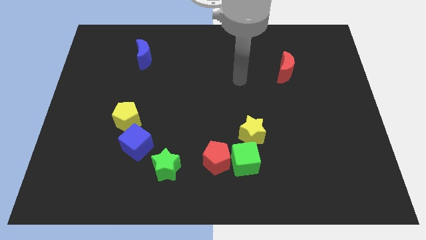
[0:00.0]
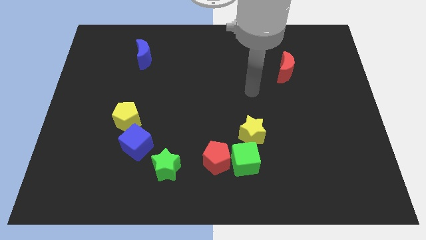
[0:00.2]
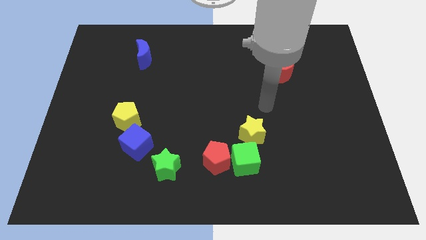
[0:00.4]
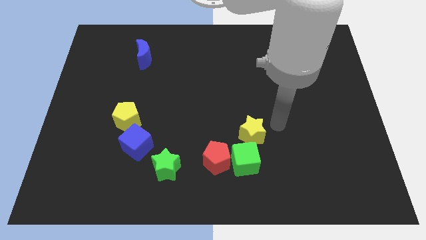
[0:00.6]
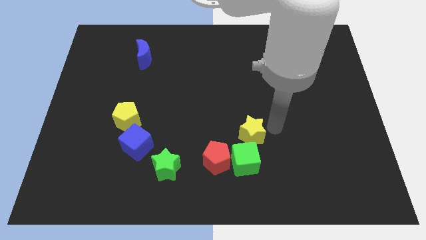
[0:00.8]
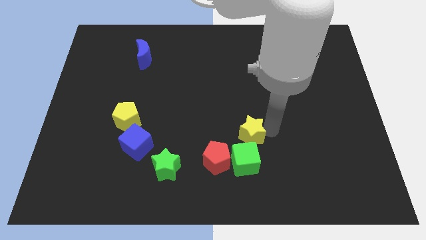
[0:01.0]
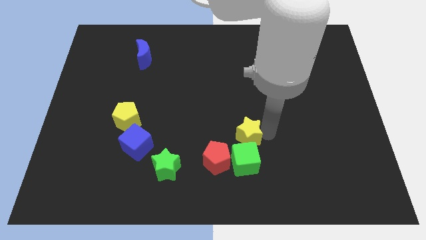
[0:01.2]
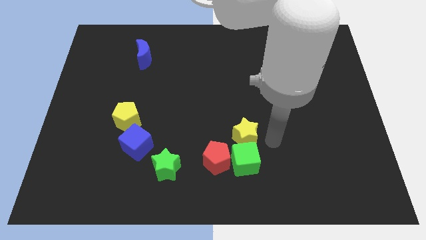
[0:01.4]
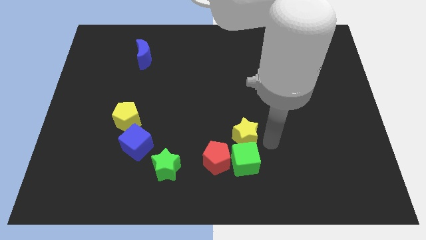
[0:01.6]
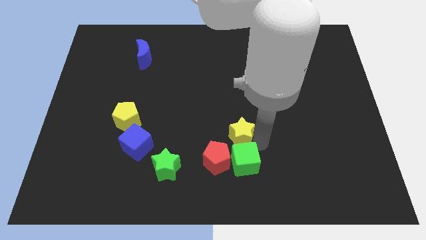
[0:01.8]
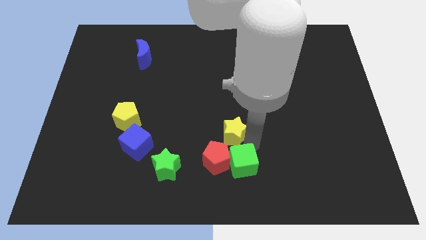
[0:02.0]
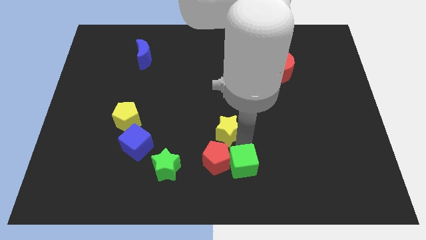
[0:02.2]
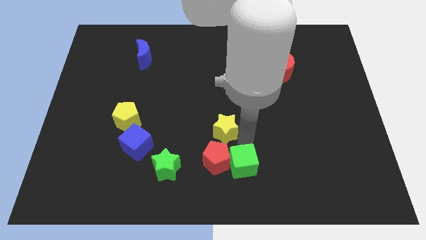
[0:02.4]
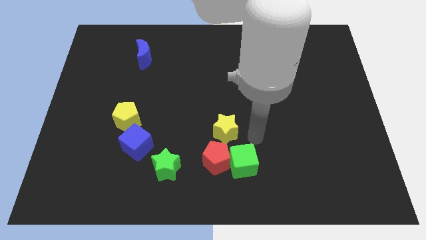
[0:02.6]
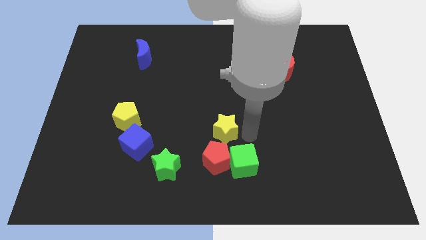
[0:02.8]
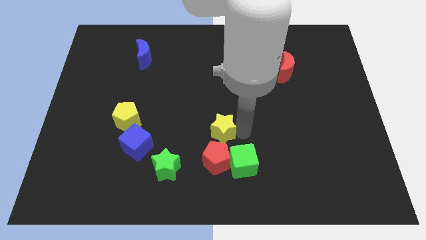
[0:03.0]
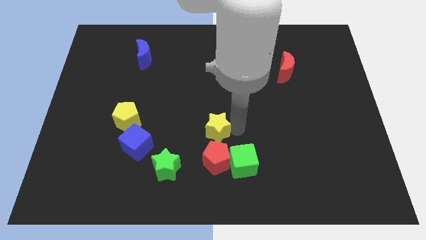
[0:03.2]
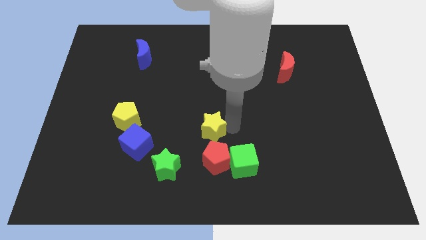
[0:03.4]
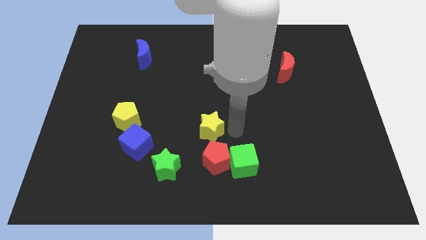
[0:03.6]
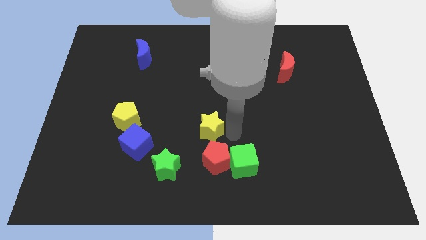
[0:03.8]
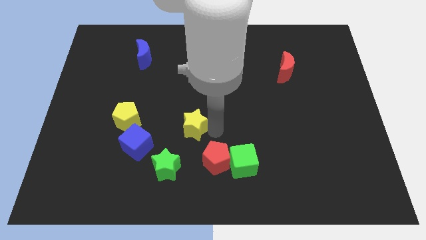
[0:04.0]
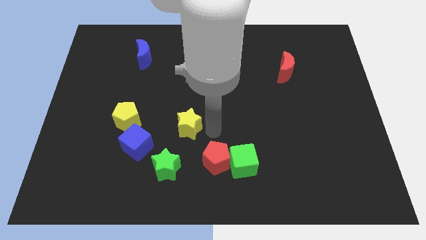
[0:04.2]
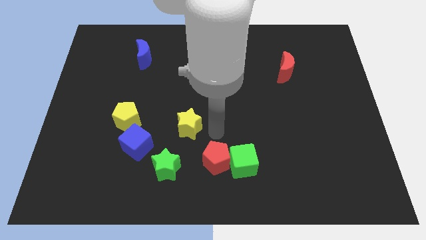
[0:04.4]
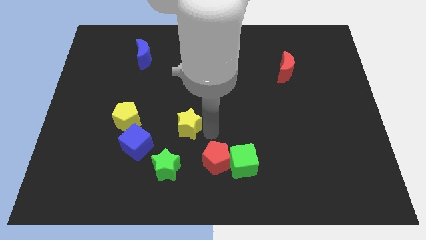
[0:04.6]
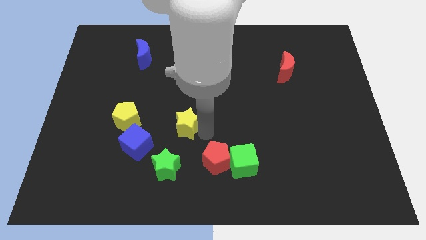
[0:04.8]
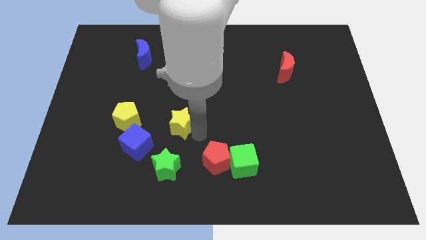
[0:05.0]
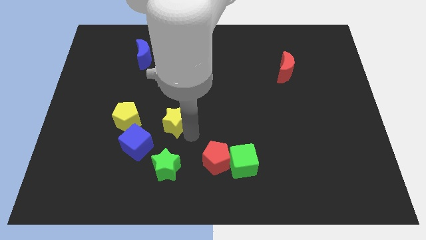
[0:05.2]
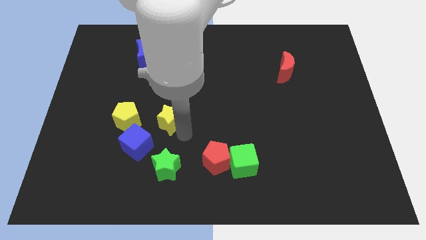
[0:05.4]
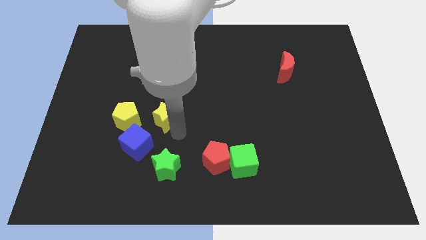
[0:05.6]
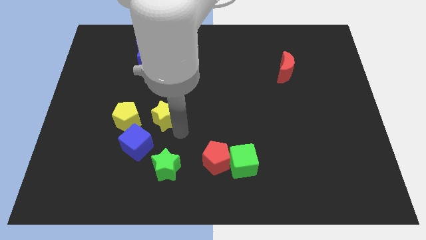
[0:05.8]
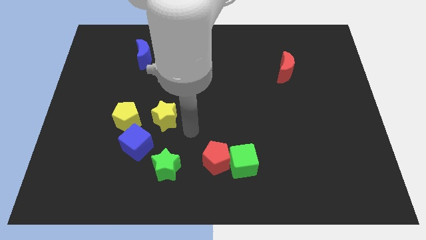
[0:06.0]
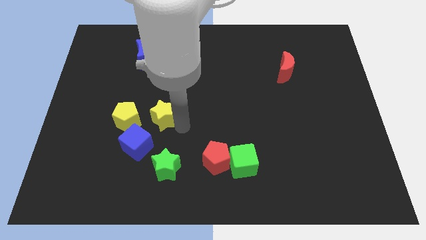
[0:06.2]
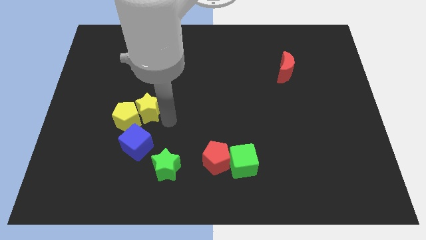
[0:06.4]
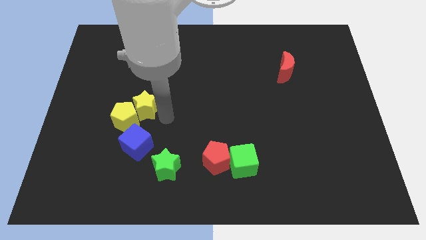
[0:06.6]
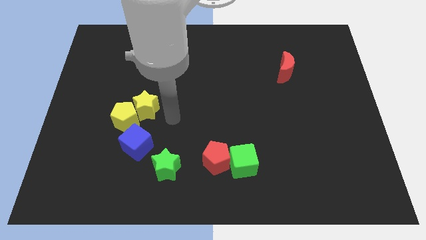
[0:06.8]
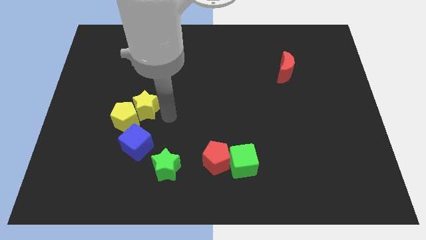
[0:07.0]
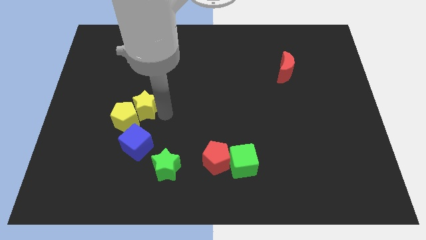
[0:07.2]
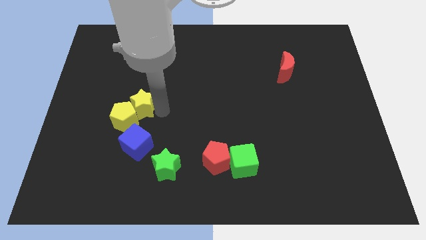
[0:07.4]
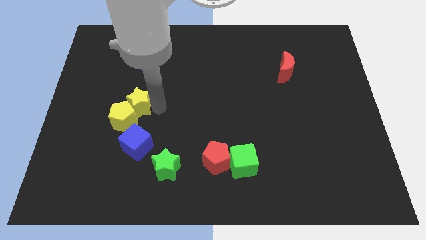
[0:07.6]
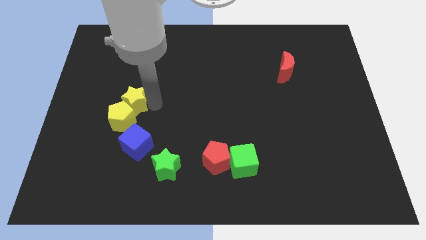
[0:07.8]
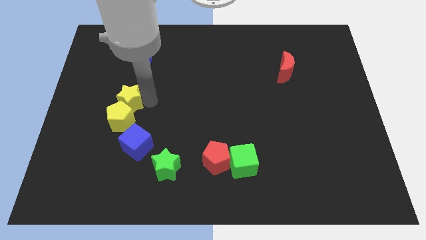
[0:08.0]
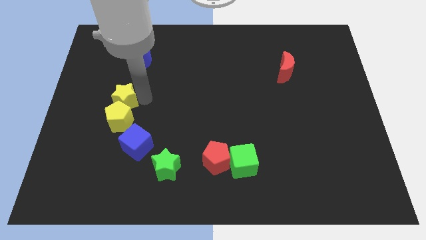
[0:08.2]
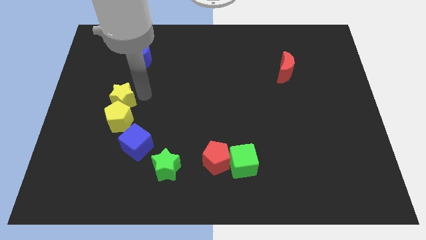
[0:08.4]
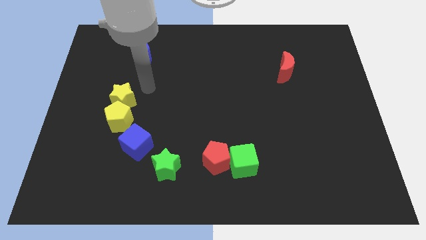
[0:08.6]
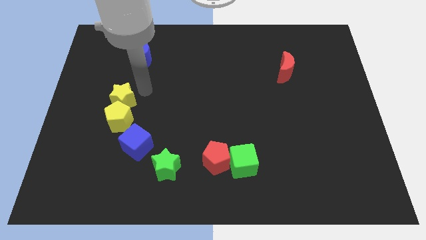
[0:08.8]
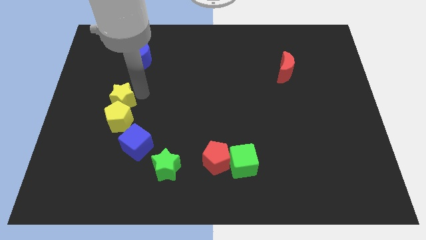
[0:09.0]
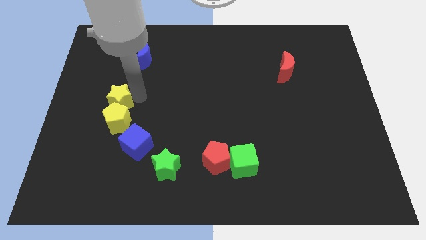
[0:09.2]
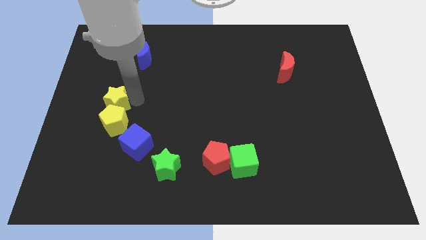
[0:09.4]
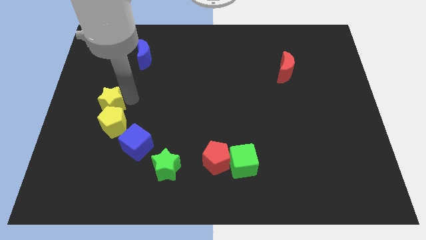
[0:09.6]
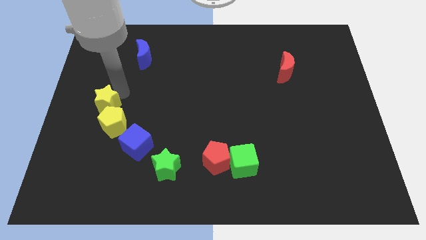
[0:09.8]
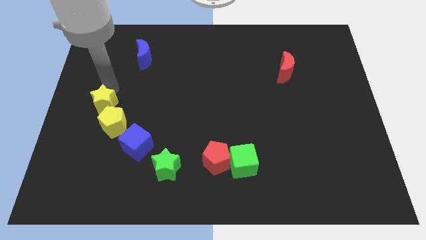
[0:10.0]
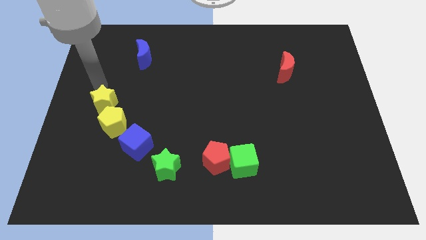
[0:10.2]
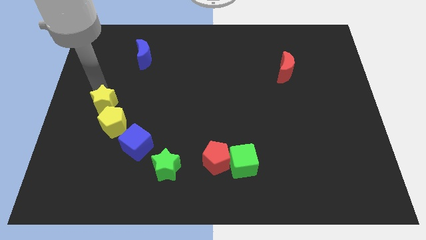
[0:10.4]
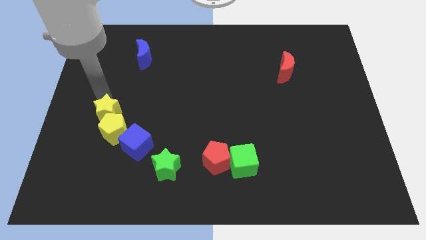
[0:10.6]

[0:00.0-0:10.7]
put the yellow star to the top left side of the blue cube

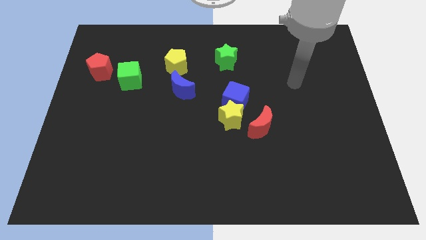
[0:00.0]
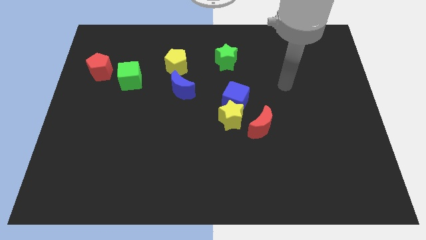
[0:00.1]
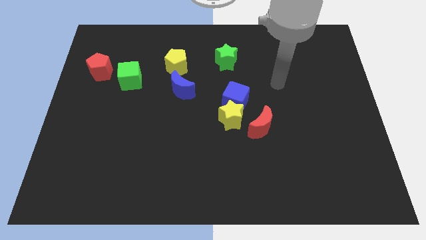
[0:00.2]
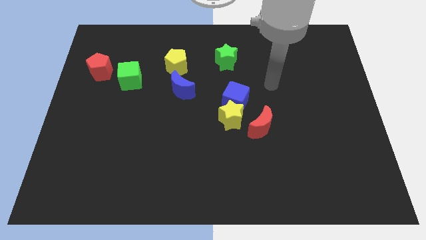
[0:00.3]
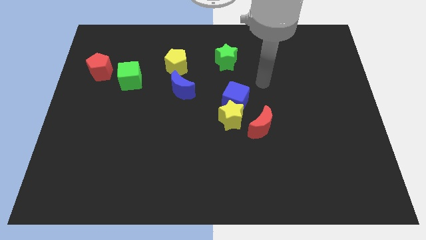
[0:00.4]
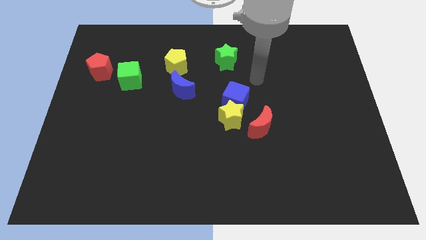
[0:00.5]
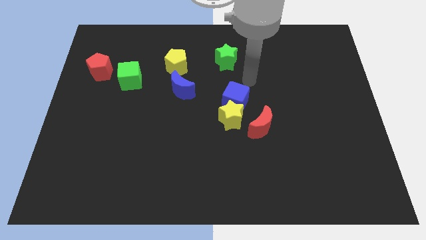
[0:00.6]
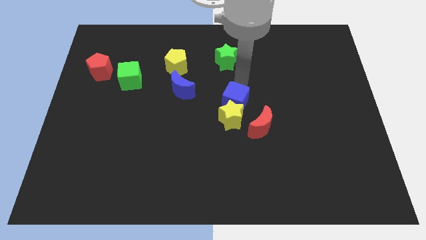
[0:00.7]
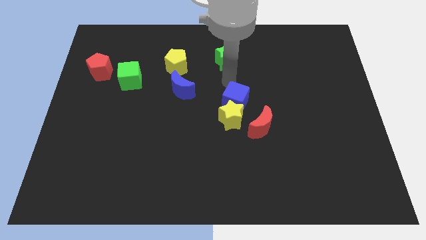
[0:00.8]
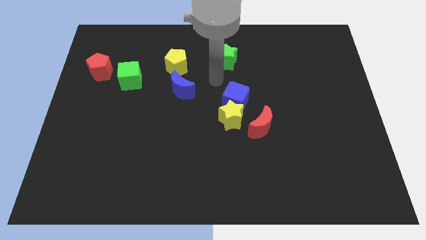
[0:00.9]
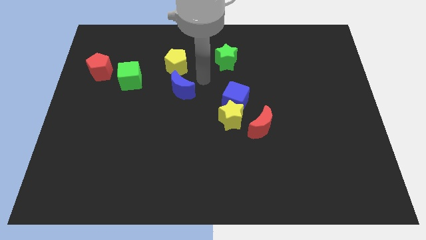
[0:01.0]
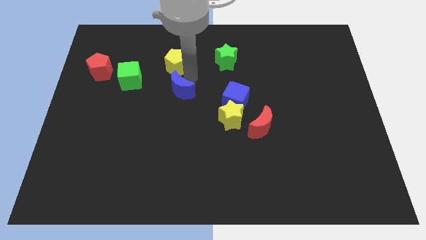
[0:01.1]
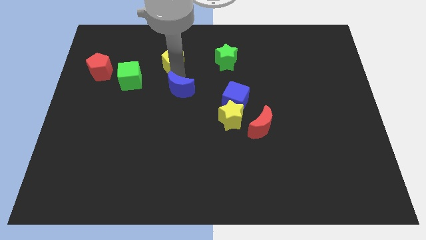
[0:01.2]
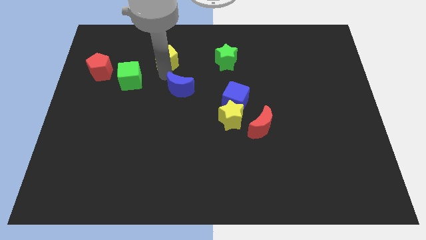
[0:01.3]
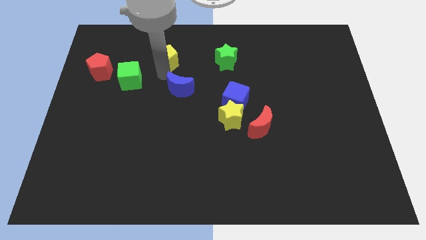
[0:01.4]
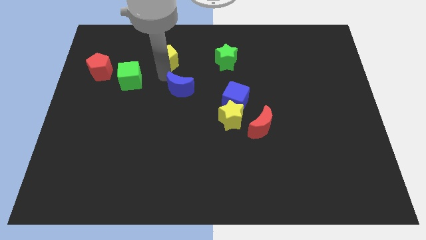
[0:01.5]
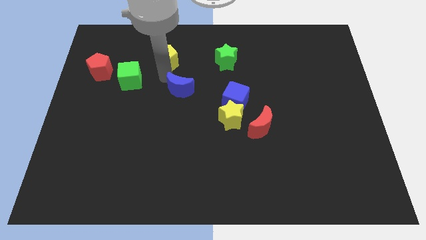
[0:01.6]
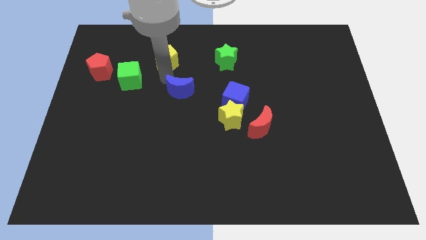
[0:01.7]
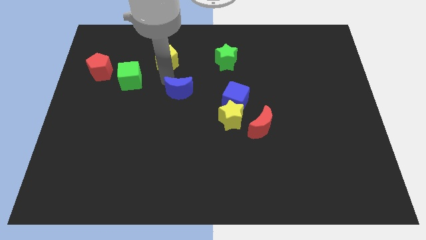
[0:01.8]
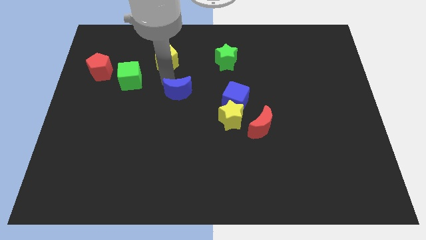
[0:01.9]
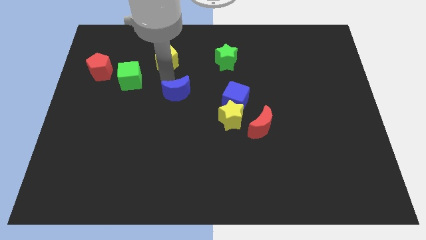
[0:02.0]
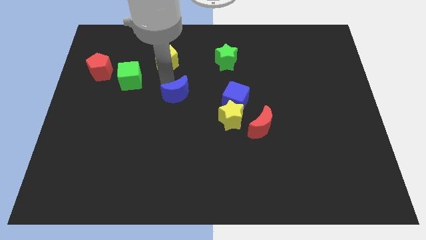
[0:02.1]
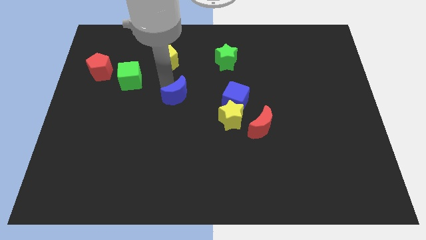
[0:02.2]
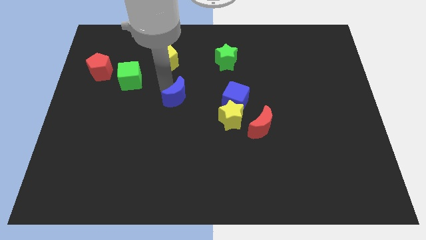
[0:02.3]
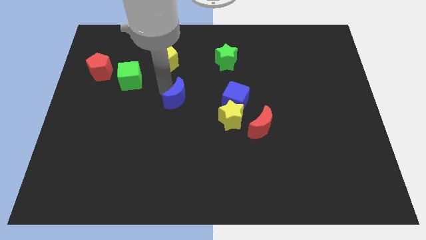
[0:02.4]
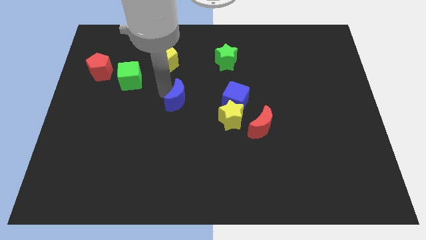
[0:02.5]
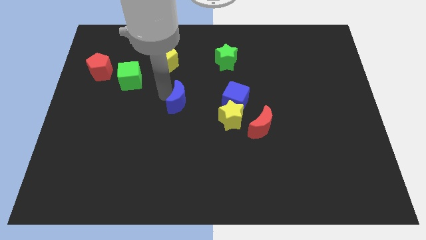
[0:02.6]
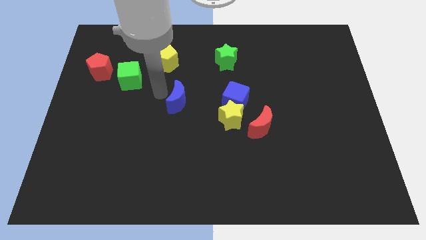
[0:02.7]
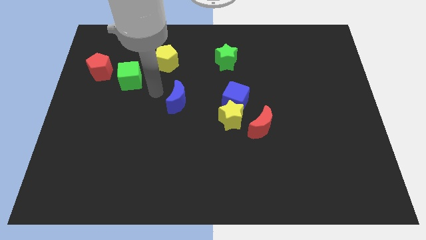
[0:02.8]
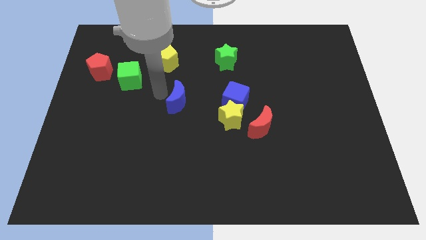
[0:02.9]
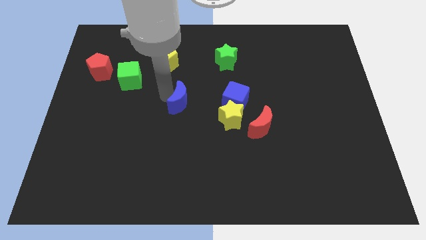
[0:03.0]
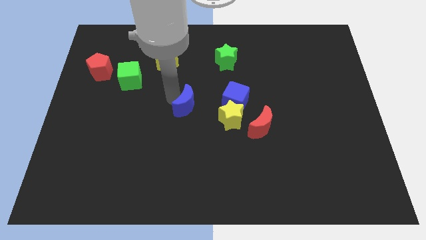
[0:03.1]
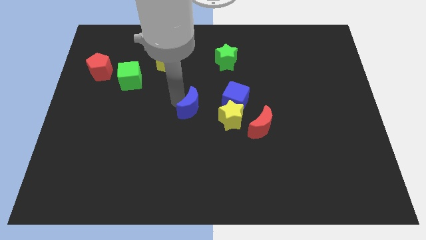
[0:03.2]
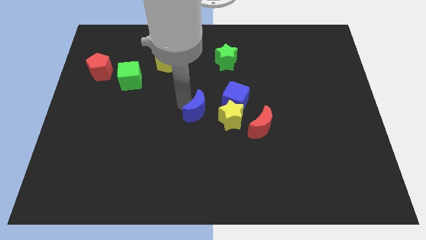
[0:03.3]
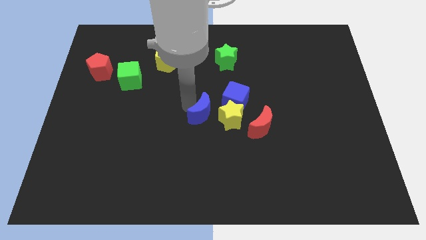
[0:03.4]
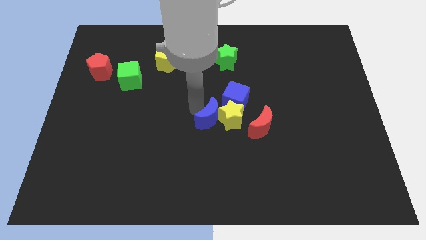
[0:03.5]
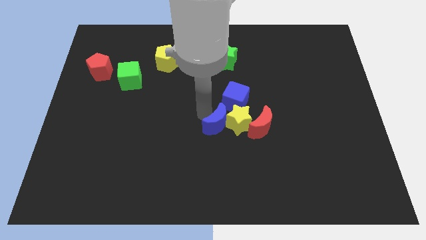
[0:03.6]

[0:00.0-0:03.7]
slide the blue moon to the bottom side of the blue cube
